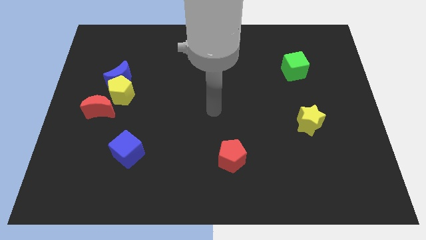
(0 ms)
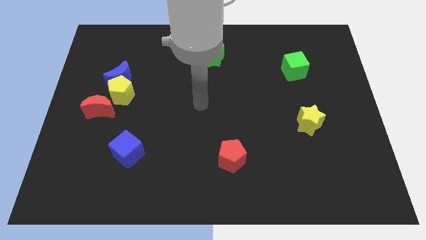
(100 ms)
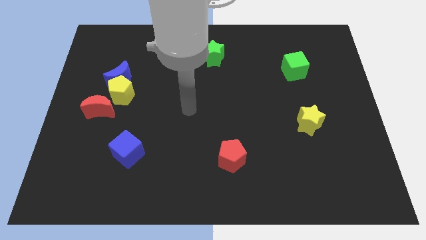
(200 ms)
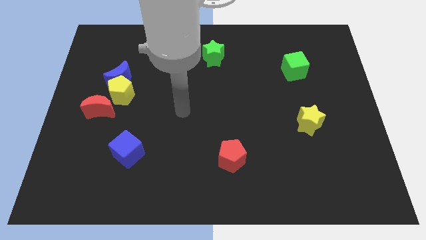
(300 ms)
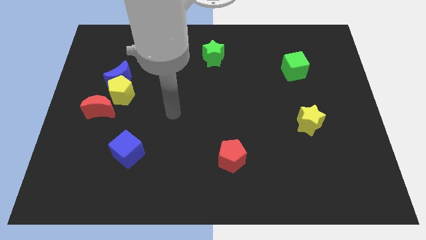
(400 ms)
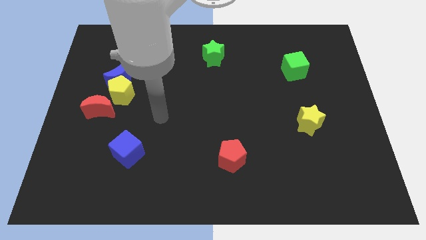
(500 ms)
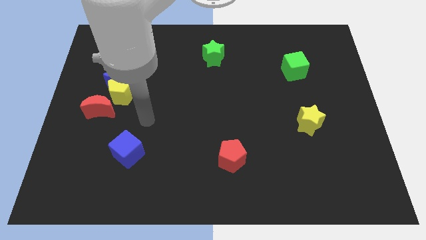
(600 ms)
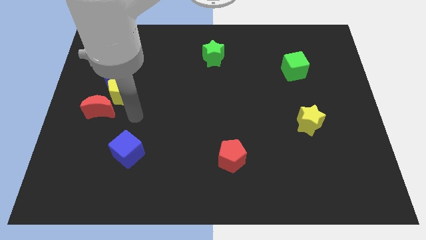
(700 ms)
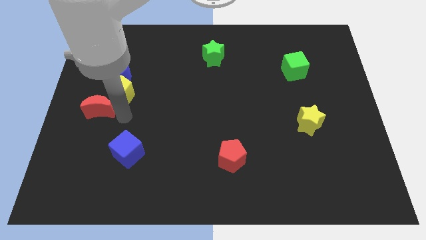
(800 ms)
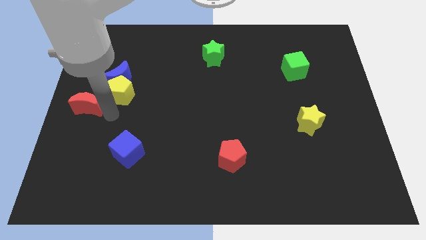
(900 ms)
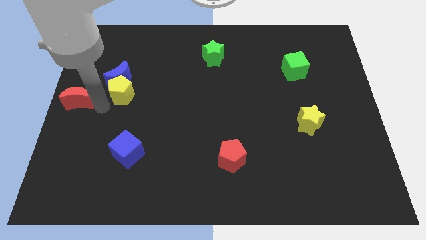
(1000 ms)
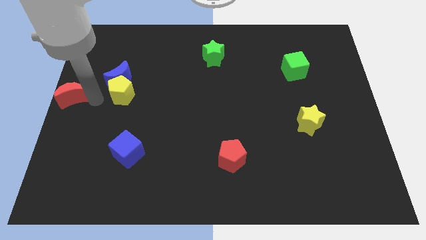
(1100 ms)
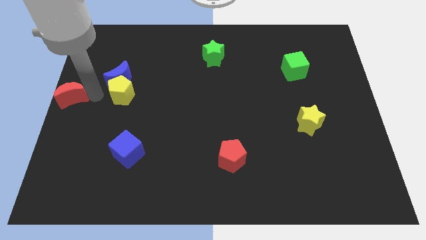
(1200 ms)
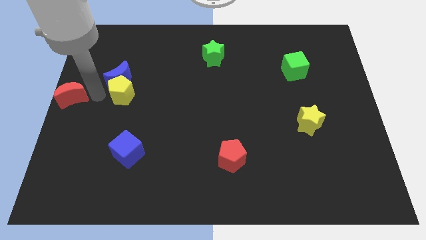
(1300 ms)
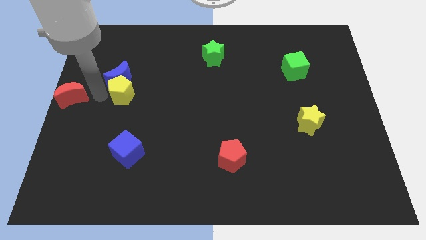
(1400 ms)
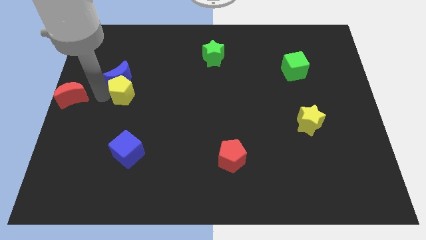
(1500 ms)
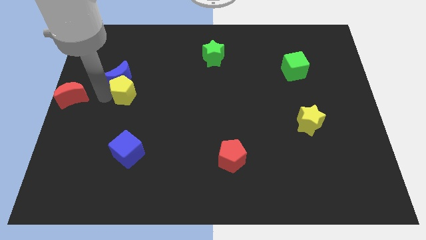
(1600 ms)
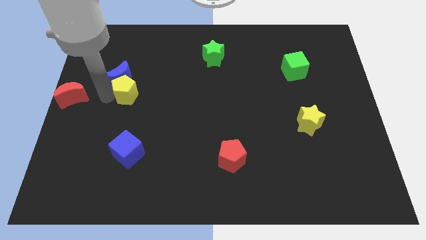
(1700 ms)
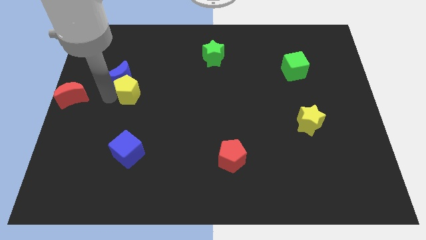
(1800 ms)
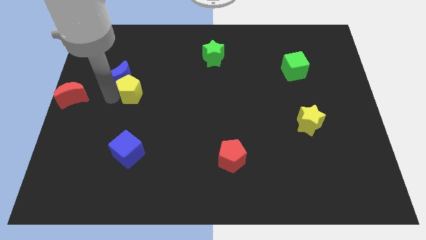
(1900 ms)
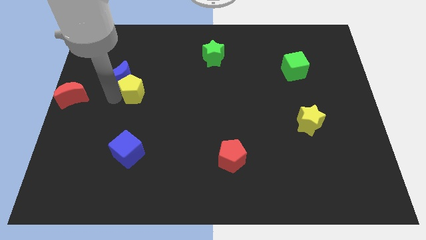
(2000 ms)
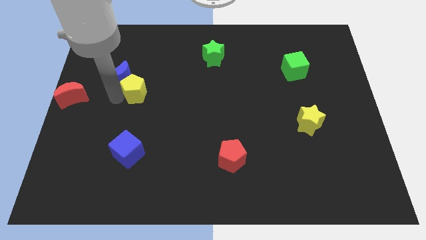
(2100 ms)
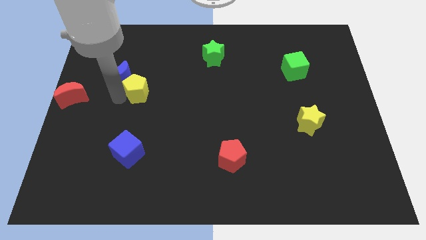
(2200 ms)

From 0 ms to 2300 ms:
move the yellow pentagon away from the blue moon and red moon

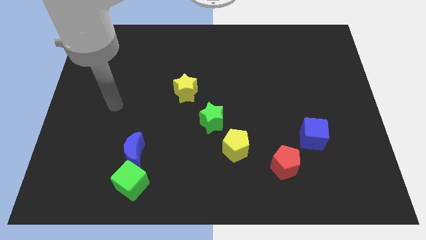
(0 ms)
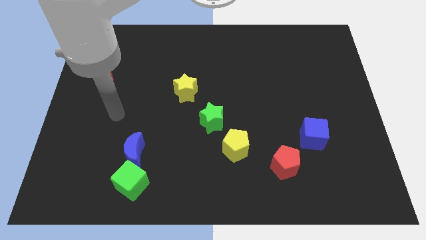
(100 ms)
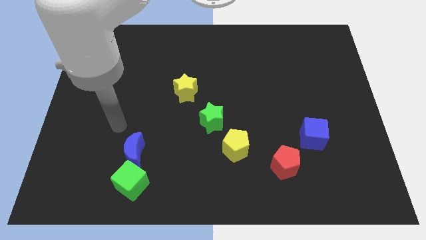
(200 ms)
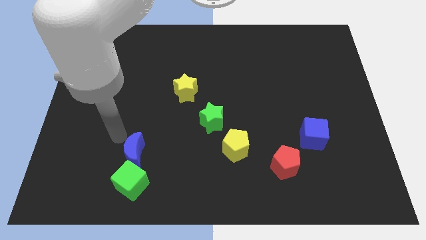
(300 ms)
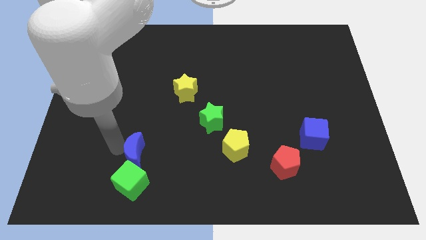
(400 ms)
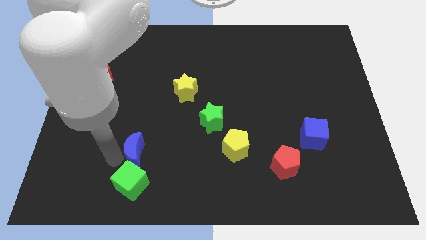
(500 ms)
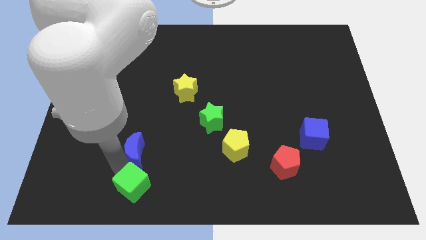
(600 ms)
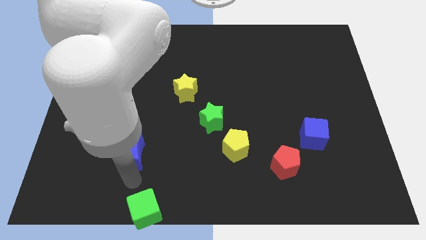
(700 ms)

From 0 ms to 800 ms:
move the blue moon away from the green cube

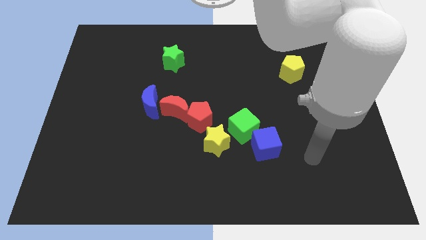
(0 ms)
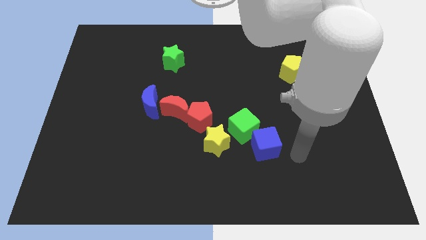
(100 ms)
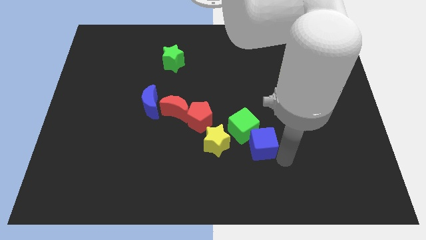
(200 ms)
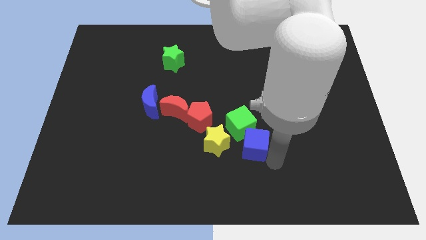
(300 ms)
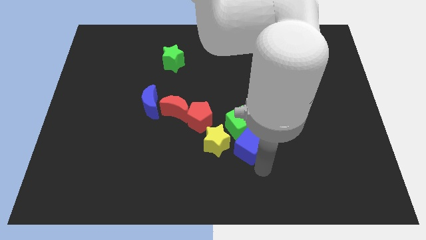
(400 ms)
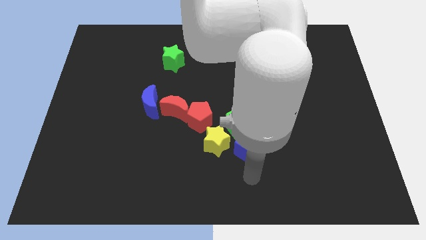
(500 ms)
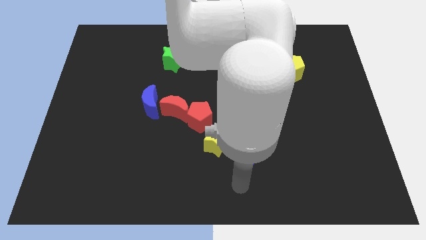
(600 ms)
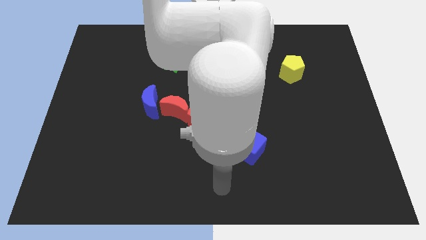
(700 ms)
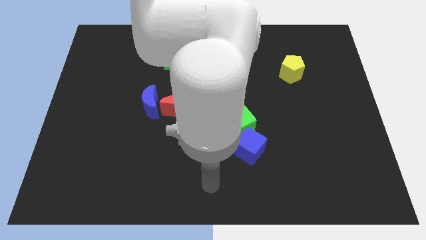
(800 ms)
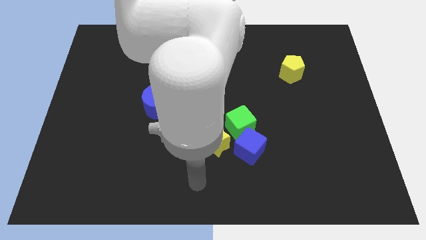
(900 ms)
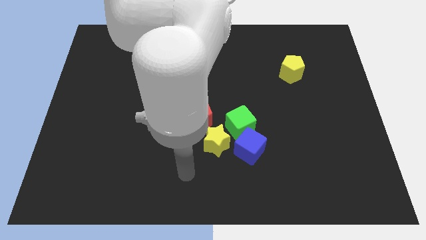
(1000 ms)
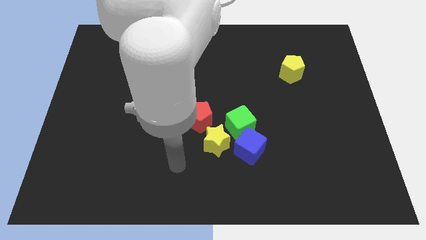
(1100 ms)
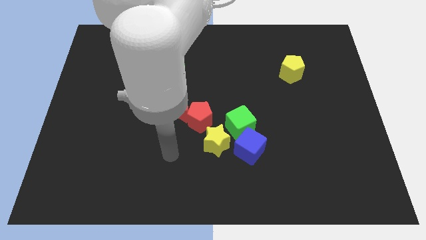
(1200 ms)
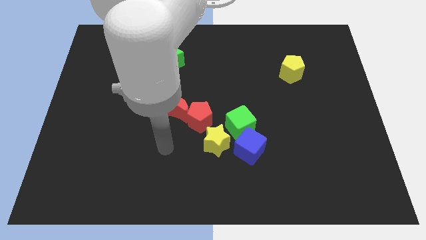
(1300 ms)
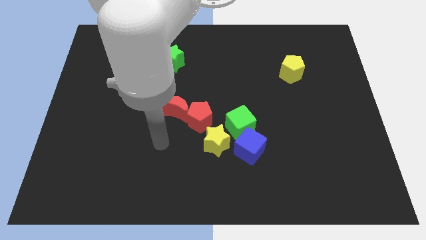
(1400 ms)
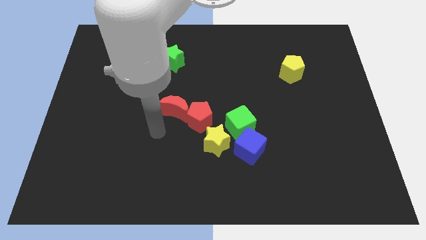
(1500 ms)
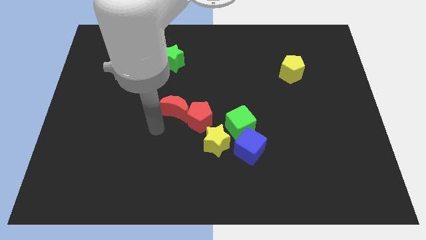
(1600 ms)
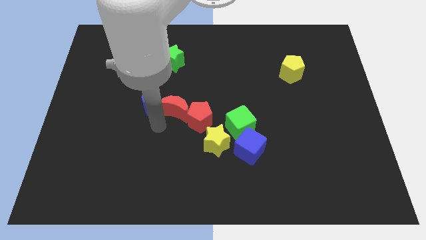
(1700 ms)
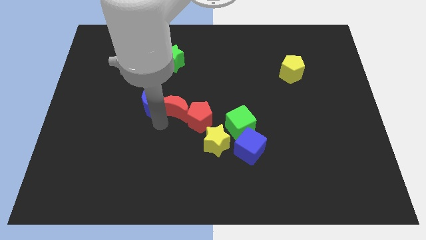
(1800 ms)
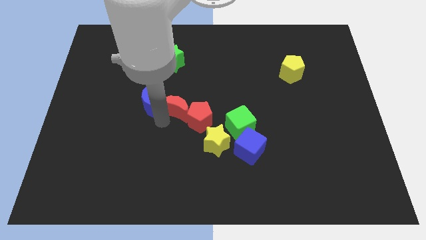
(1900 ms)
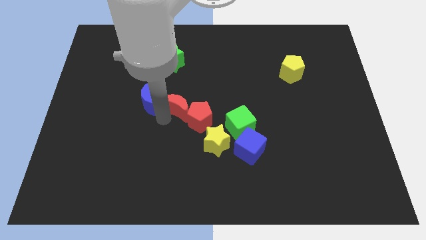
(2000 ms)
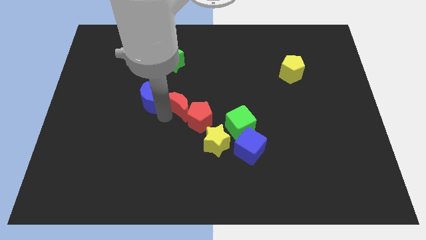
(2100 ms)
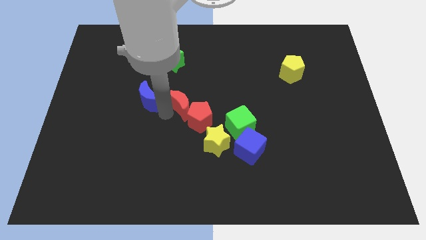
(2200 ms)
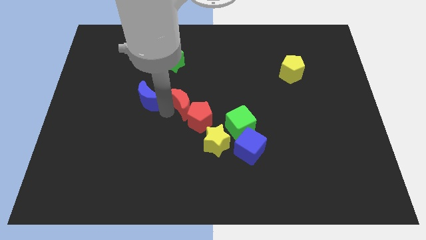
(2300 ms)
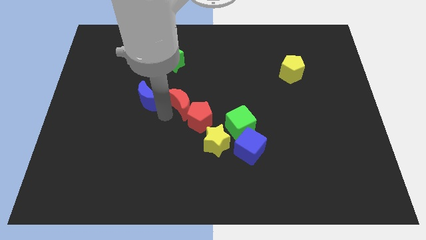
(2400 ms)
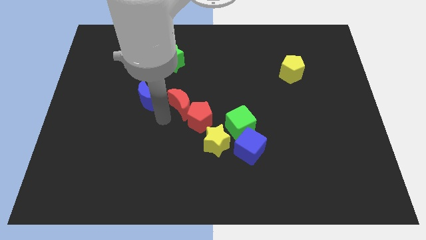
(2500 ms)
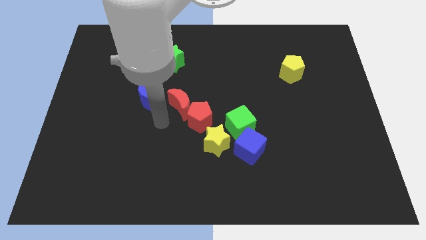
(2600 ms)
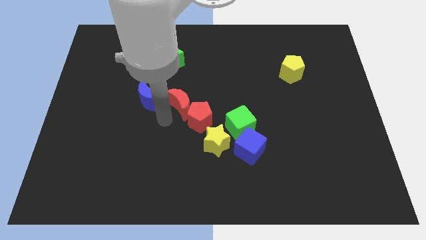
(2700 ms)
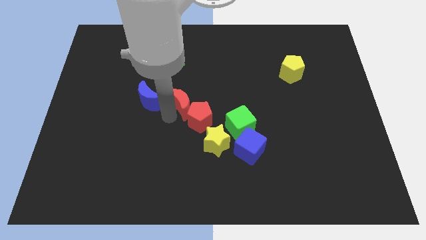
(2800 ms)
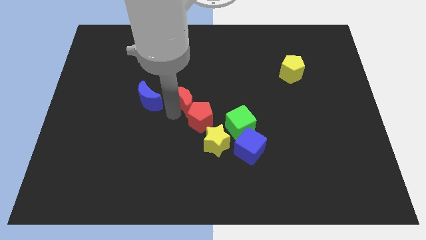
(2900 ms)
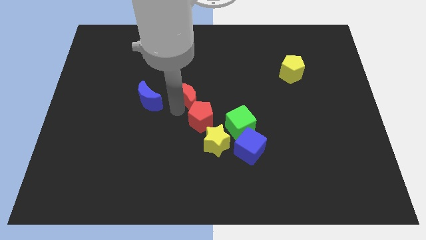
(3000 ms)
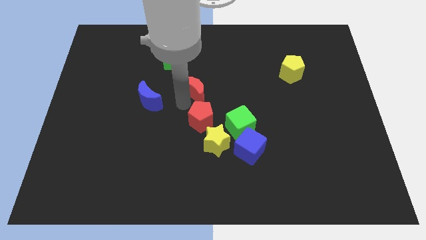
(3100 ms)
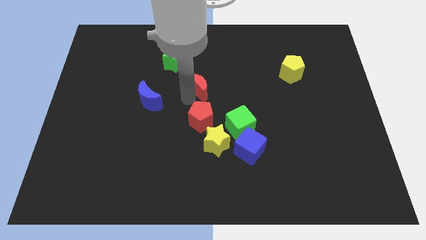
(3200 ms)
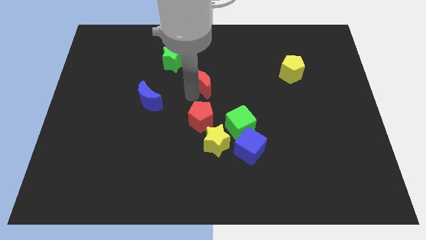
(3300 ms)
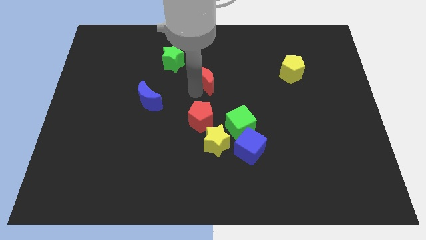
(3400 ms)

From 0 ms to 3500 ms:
move the red moon away from the red pentagon and blue moon

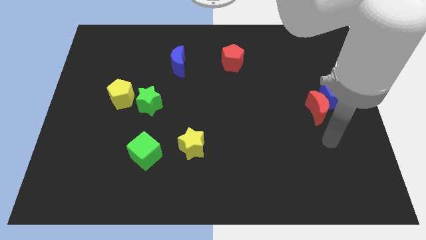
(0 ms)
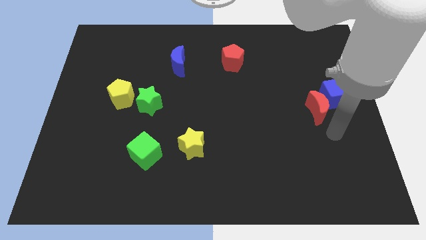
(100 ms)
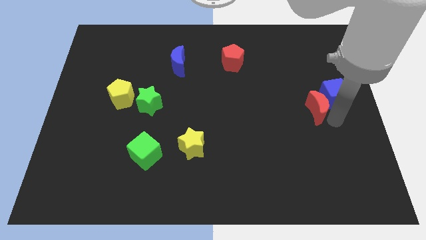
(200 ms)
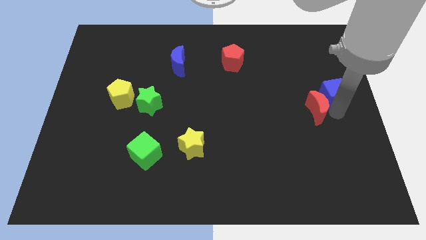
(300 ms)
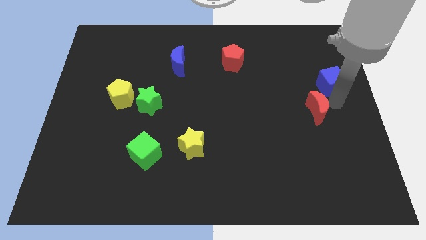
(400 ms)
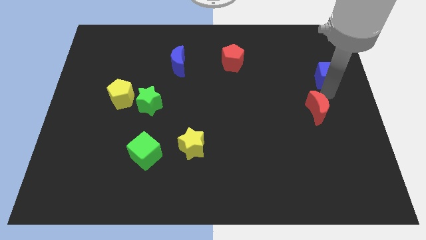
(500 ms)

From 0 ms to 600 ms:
move the red moon away from the blue cube

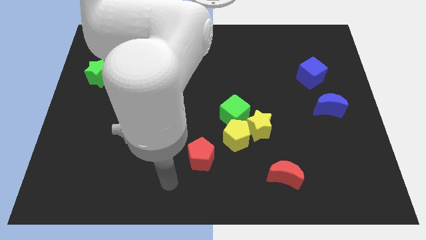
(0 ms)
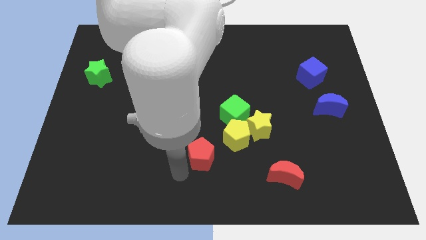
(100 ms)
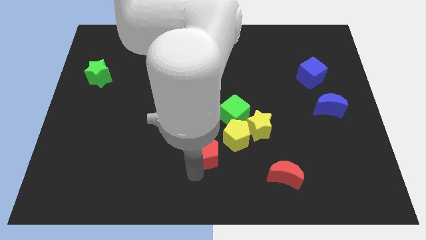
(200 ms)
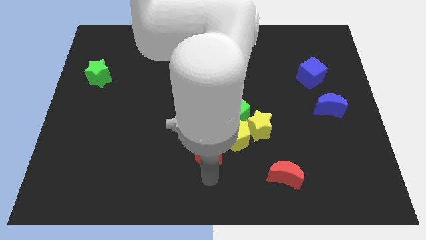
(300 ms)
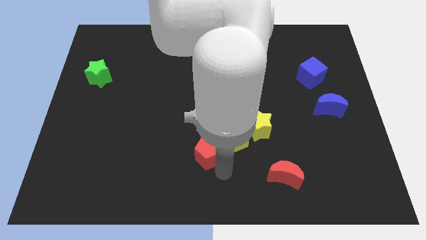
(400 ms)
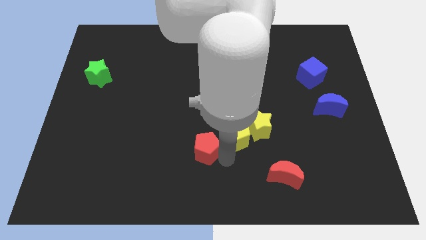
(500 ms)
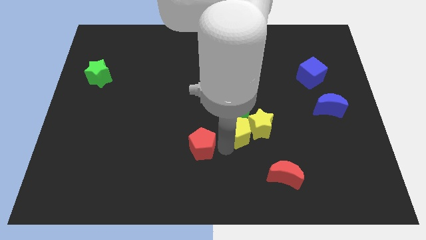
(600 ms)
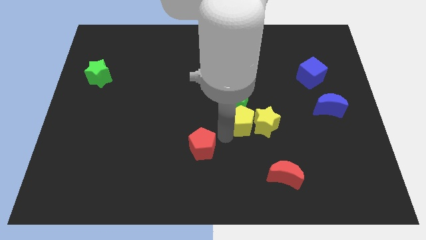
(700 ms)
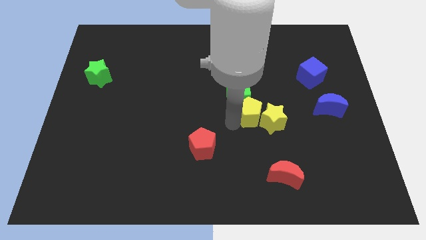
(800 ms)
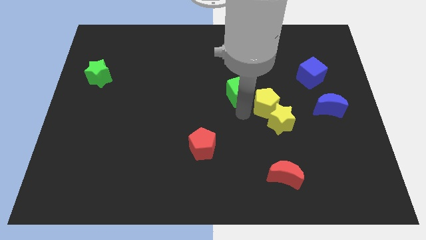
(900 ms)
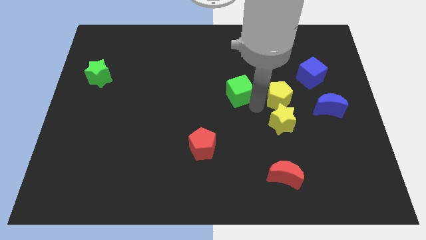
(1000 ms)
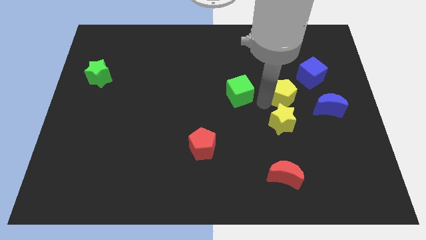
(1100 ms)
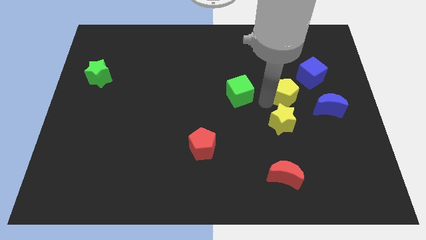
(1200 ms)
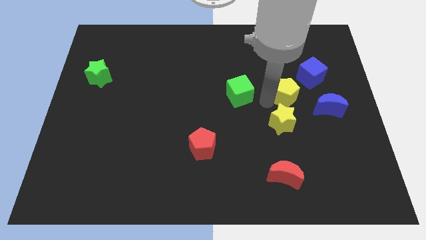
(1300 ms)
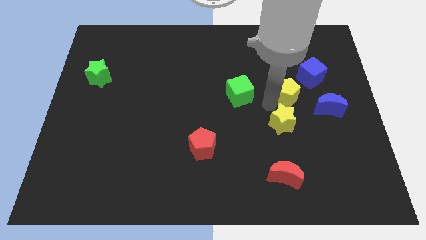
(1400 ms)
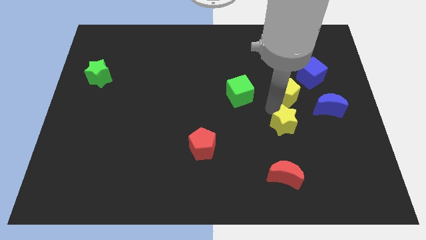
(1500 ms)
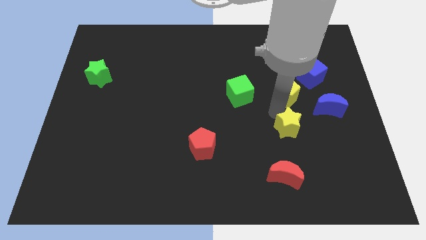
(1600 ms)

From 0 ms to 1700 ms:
move the yellow star away from the yellow pentagon and green cube

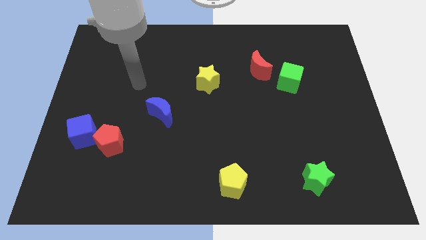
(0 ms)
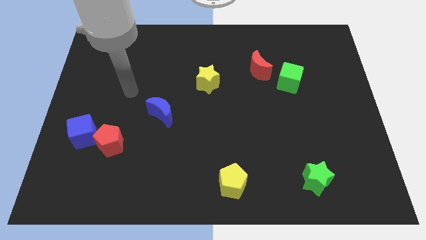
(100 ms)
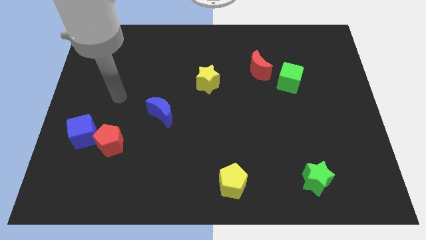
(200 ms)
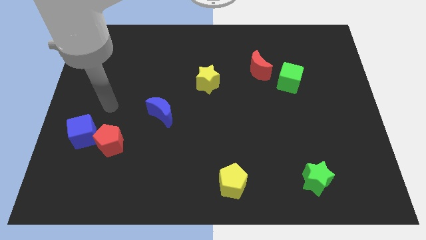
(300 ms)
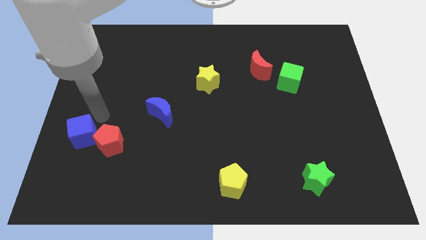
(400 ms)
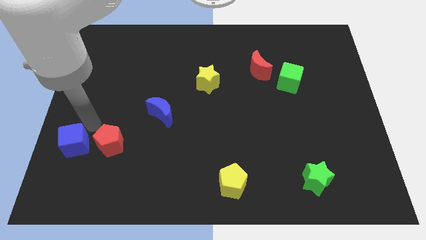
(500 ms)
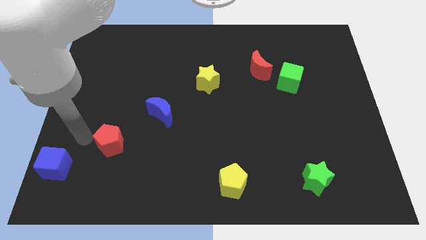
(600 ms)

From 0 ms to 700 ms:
pull the red pentagon apart from the blue cube
